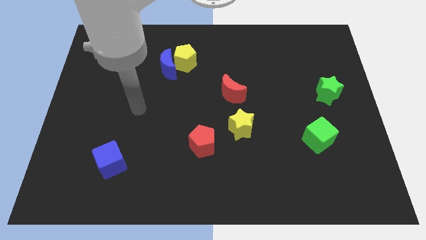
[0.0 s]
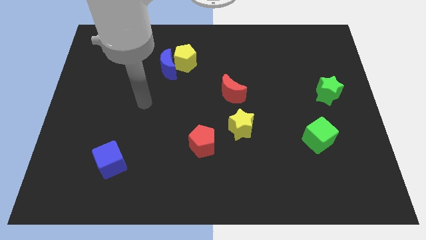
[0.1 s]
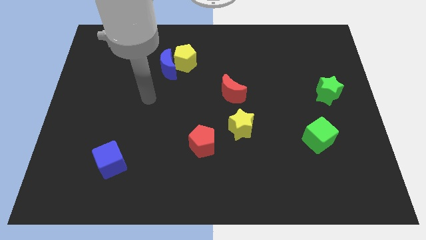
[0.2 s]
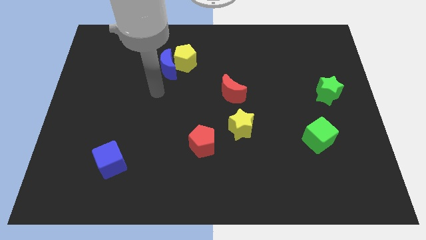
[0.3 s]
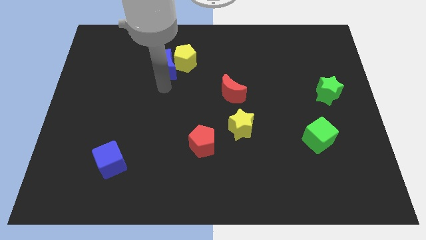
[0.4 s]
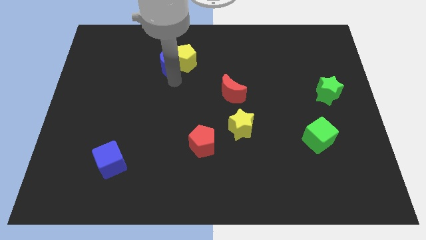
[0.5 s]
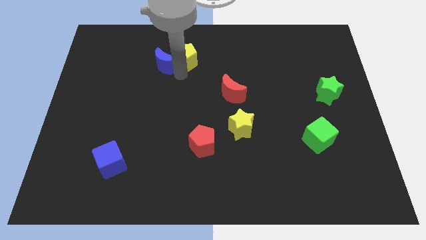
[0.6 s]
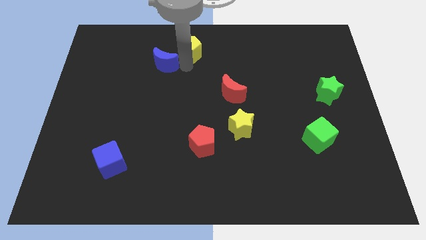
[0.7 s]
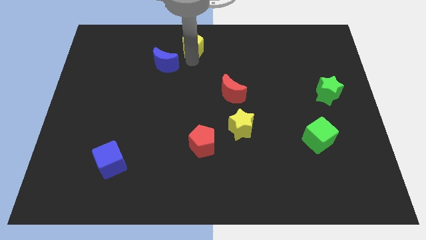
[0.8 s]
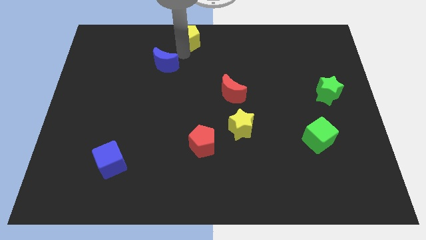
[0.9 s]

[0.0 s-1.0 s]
separate the blue moon from the yellow pentagon

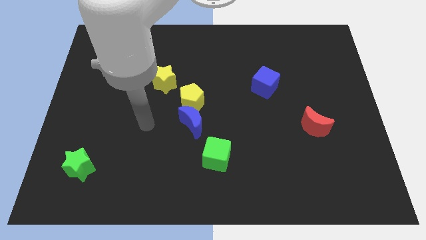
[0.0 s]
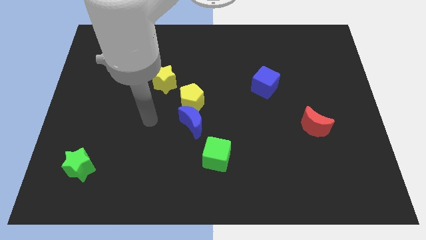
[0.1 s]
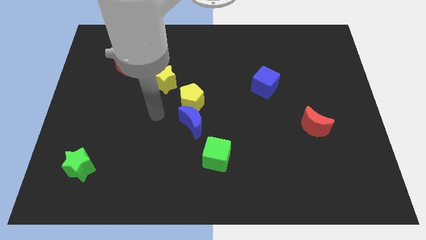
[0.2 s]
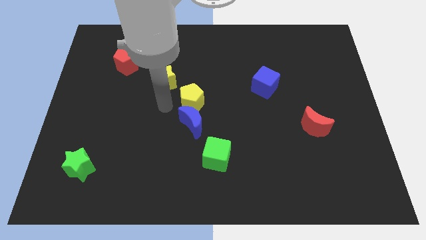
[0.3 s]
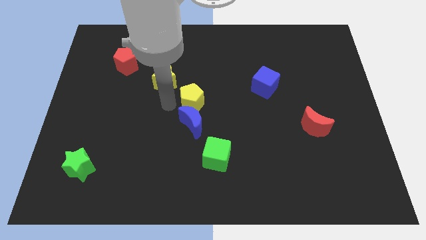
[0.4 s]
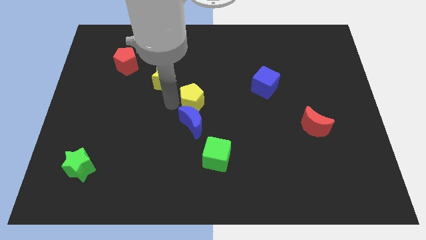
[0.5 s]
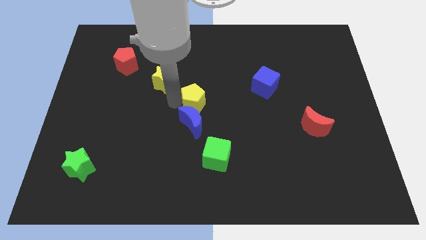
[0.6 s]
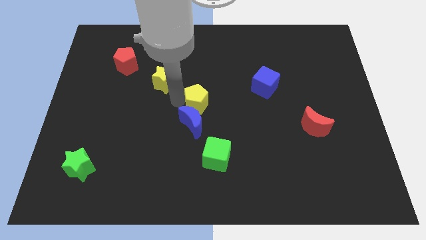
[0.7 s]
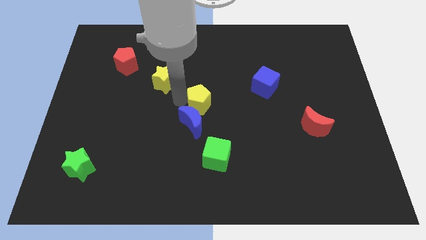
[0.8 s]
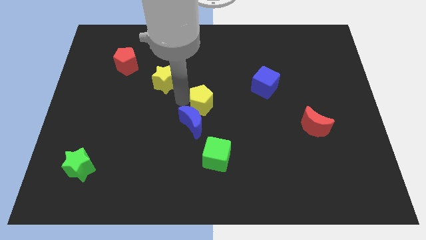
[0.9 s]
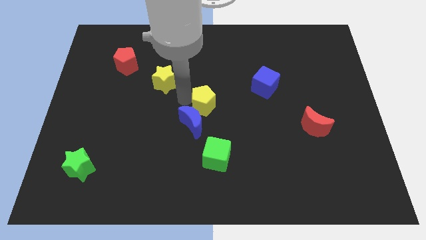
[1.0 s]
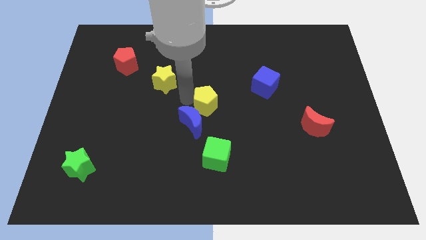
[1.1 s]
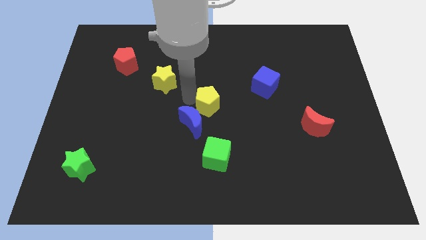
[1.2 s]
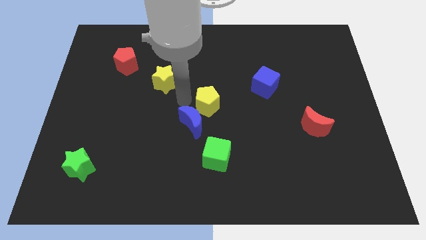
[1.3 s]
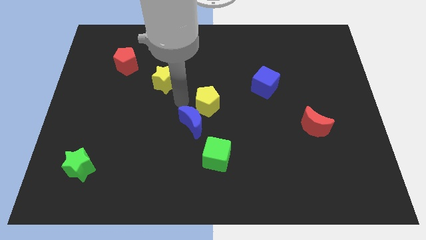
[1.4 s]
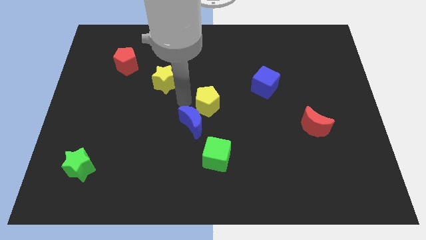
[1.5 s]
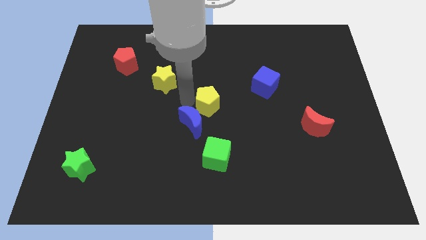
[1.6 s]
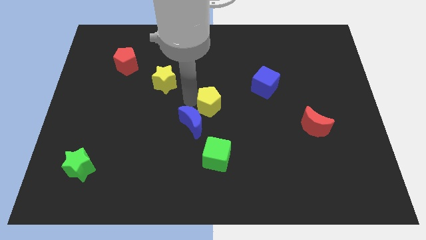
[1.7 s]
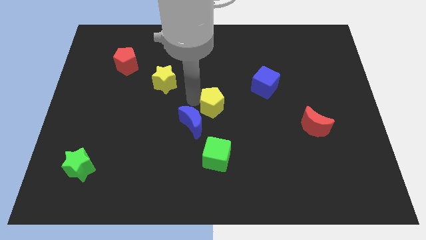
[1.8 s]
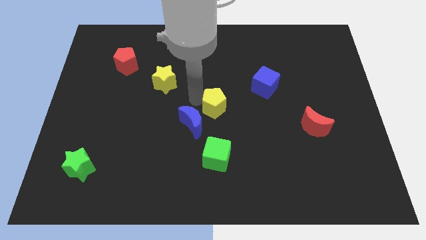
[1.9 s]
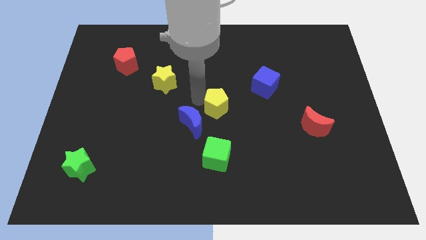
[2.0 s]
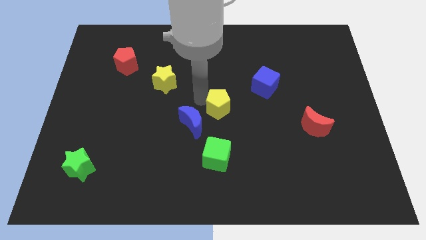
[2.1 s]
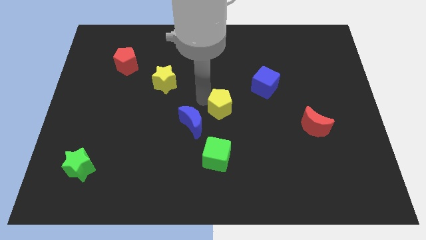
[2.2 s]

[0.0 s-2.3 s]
pull the yellow pentagon apart from the blue moon and yellow star

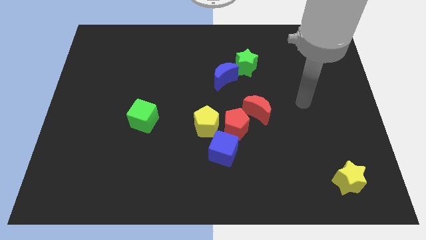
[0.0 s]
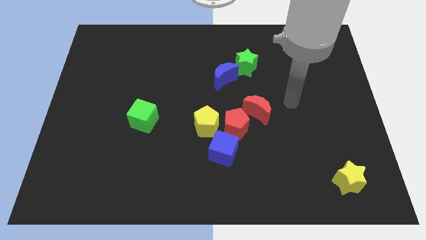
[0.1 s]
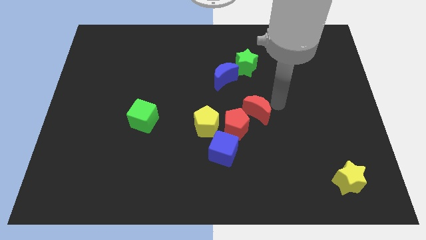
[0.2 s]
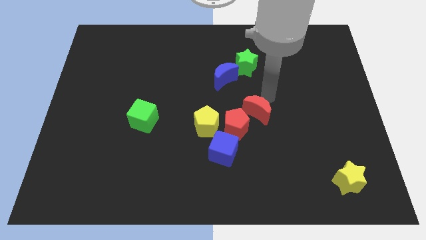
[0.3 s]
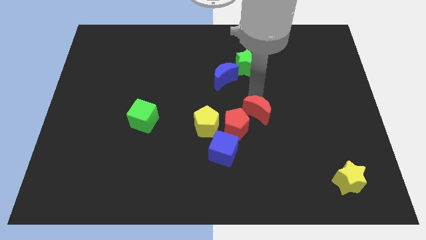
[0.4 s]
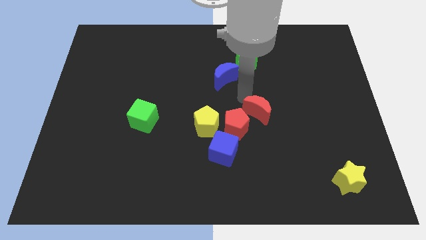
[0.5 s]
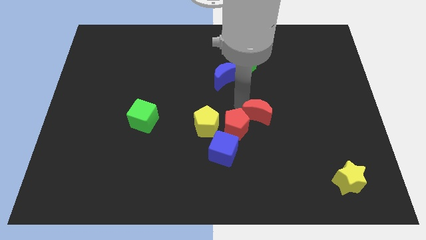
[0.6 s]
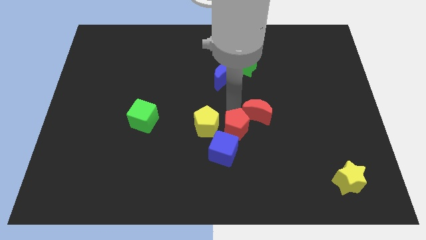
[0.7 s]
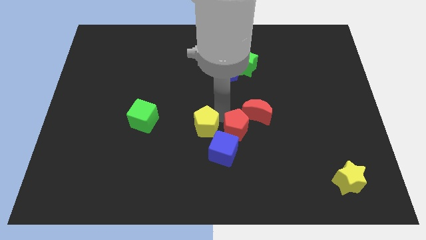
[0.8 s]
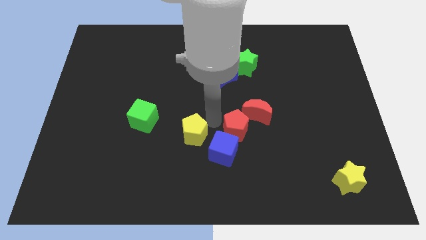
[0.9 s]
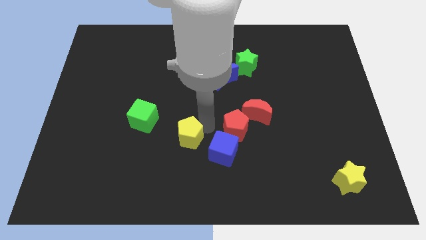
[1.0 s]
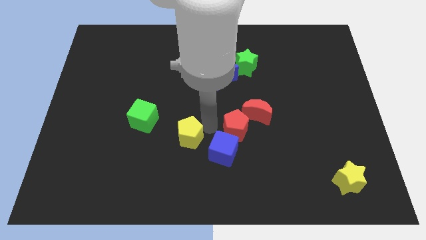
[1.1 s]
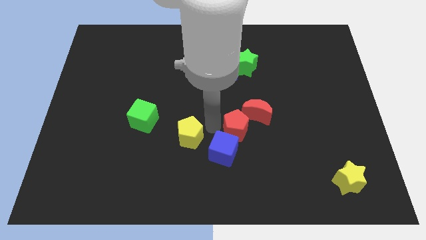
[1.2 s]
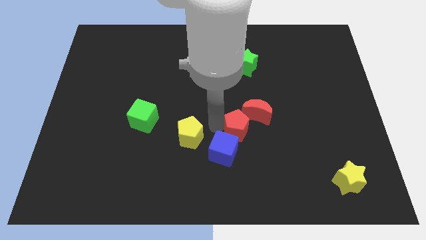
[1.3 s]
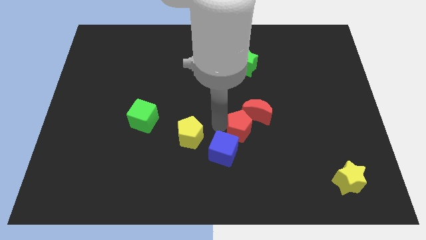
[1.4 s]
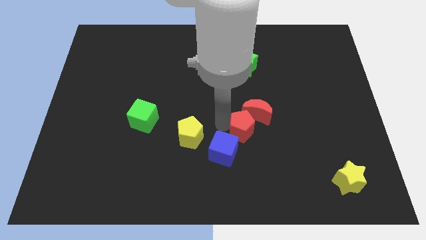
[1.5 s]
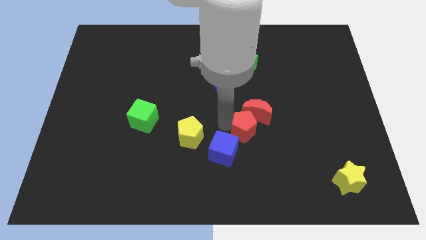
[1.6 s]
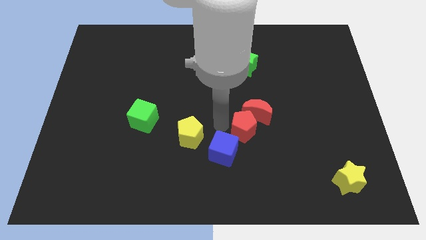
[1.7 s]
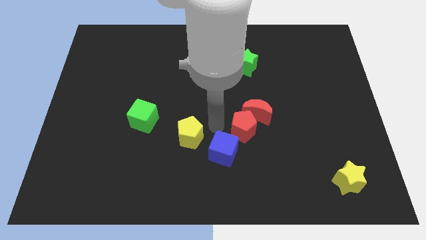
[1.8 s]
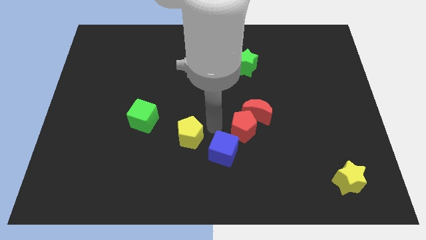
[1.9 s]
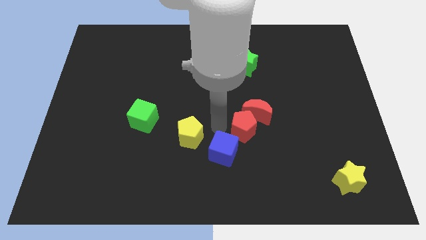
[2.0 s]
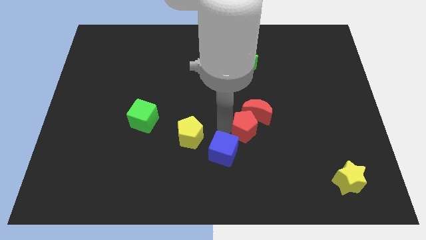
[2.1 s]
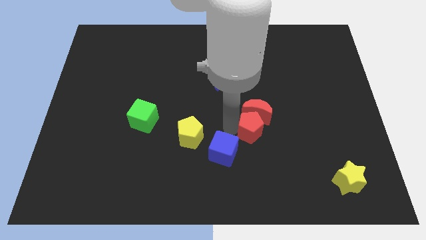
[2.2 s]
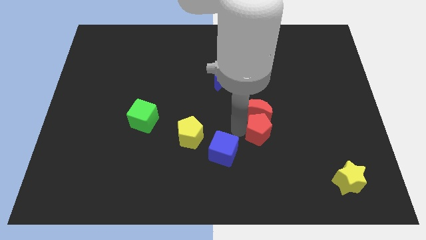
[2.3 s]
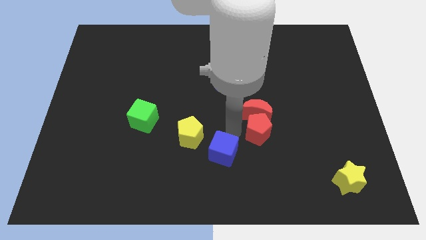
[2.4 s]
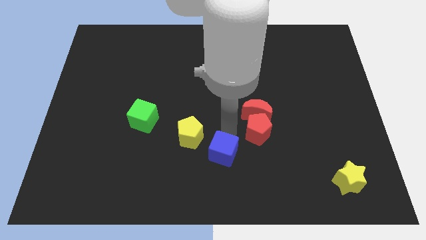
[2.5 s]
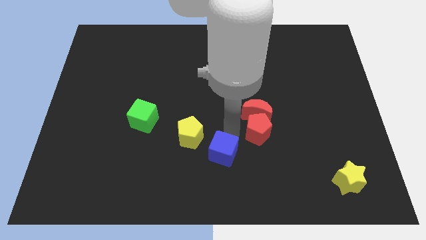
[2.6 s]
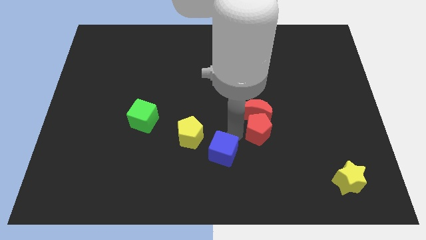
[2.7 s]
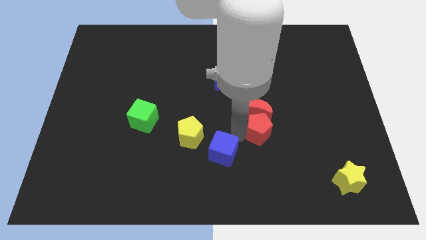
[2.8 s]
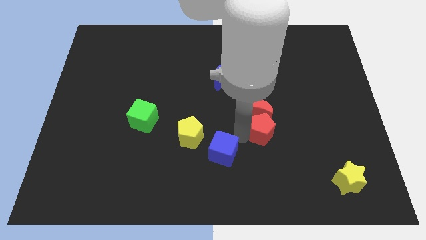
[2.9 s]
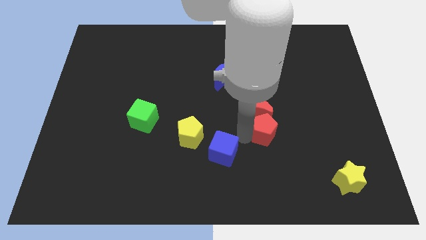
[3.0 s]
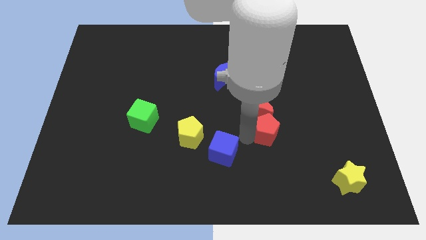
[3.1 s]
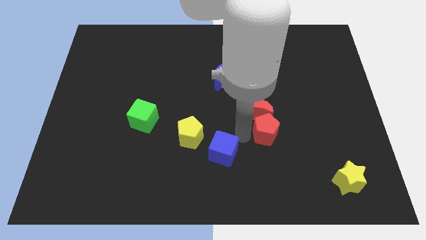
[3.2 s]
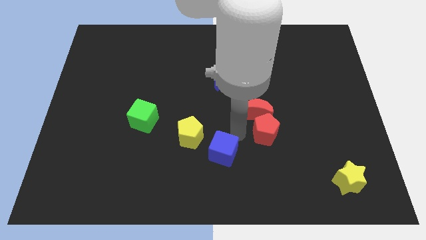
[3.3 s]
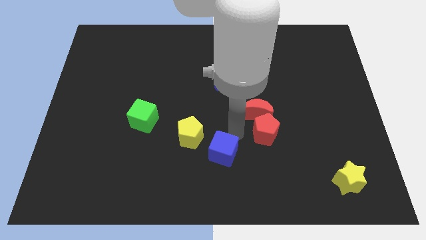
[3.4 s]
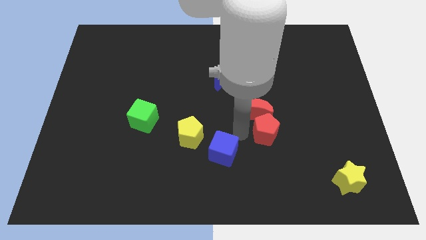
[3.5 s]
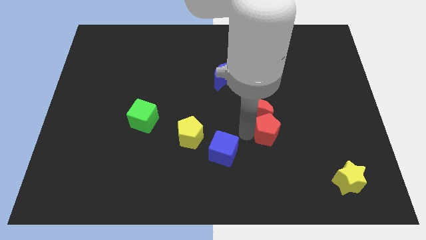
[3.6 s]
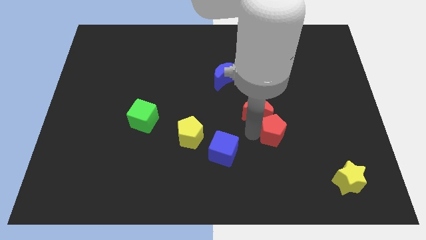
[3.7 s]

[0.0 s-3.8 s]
separate the red pentagon from the clump

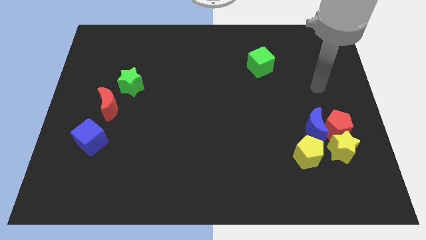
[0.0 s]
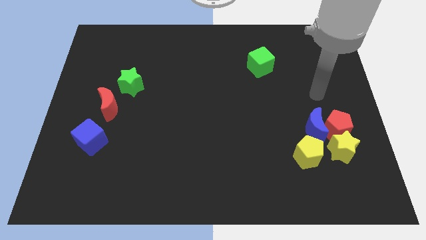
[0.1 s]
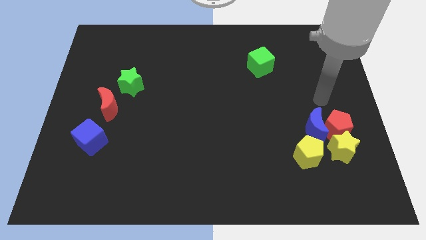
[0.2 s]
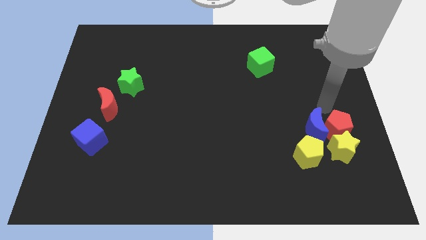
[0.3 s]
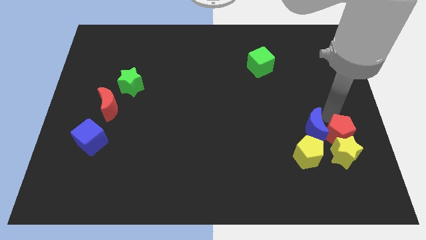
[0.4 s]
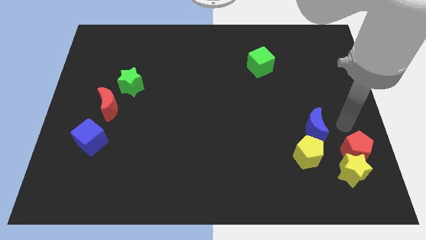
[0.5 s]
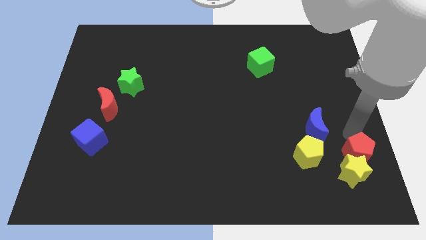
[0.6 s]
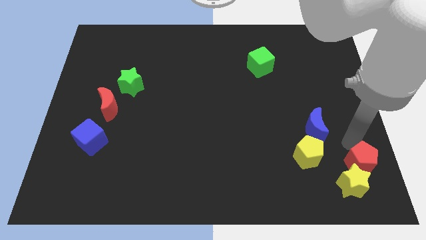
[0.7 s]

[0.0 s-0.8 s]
separate the blue moon from the group of blocks

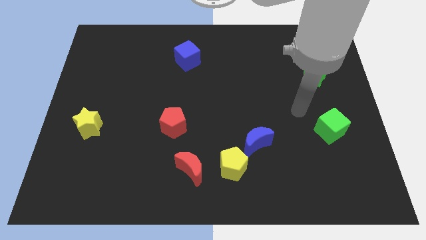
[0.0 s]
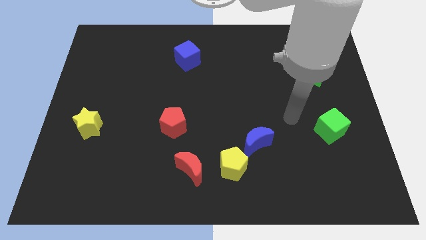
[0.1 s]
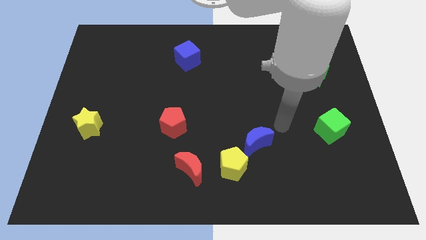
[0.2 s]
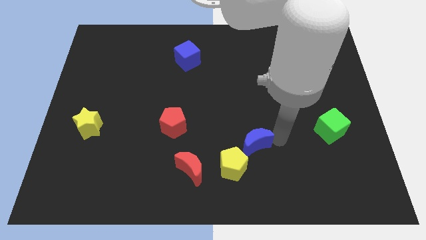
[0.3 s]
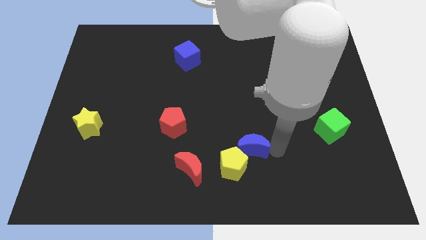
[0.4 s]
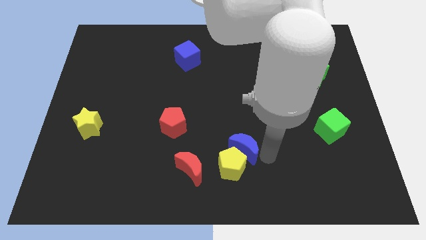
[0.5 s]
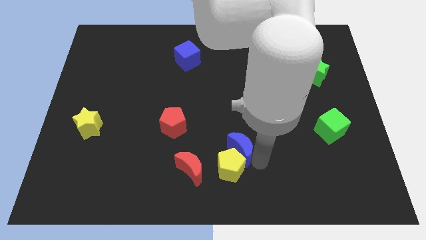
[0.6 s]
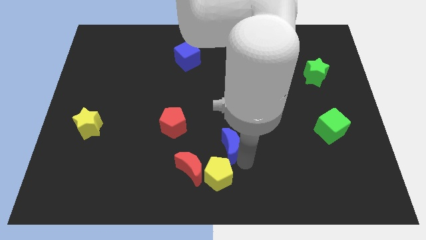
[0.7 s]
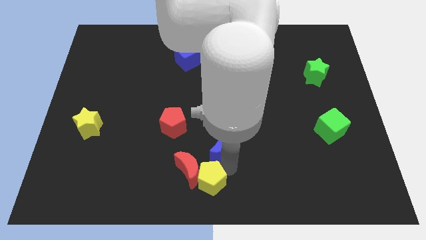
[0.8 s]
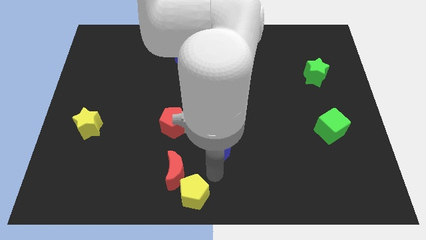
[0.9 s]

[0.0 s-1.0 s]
pull the blue moon apart from the yellow pentagon

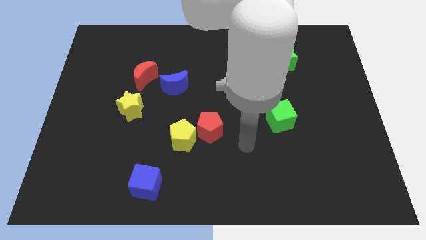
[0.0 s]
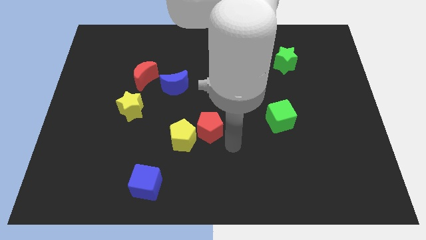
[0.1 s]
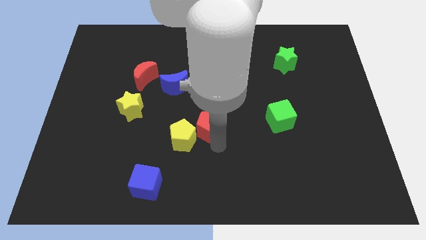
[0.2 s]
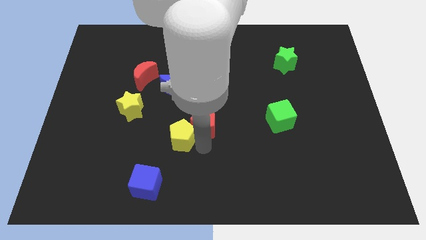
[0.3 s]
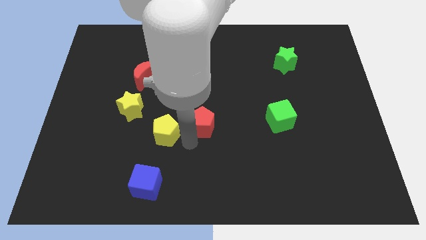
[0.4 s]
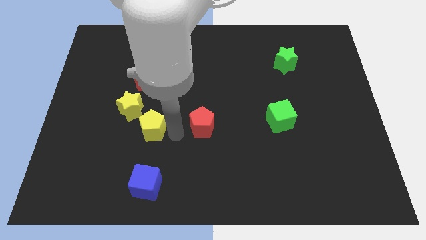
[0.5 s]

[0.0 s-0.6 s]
separate the red pentagon from the yellow pentagon
